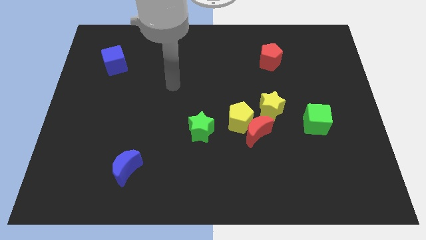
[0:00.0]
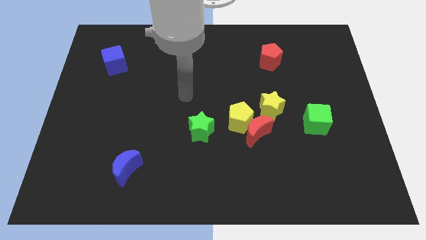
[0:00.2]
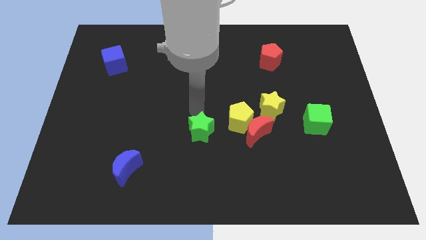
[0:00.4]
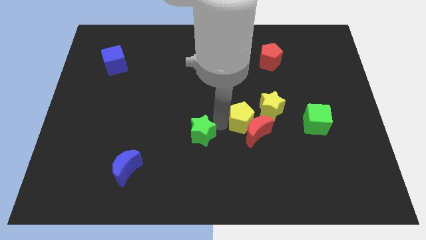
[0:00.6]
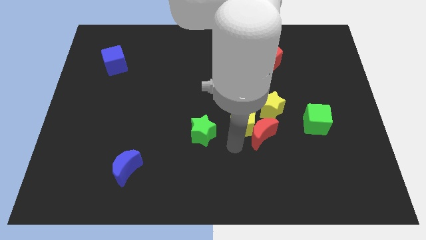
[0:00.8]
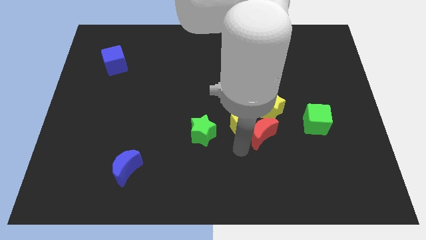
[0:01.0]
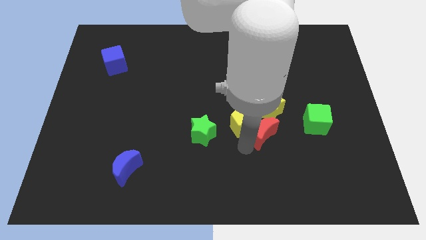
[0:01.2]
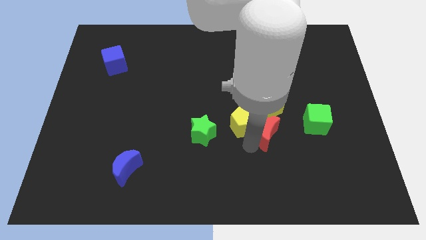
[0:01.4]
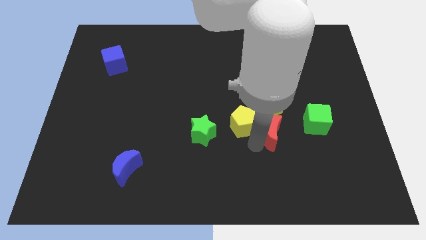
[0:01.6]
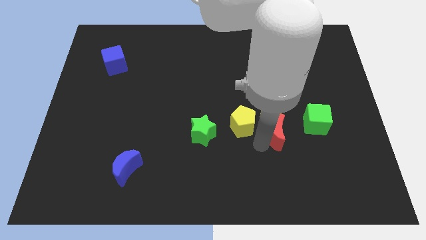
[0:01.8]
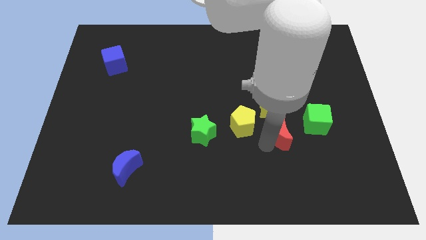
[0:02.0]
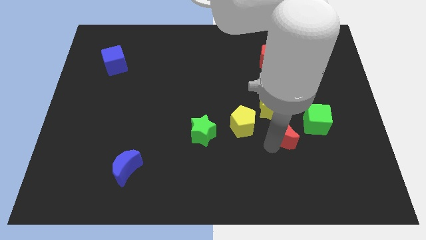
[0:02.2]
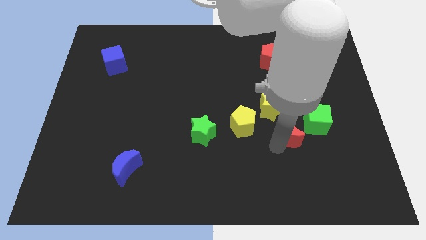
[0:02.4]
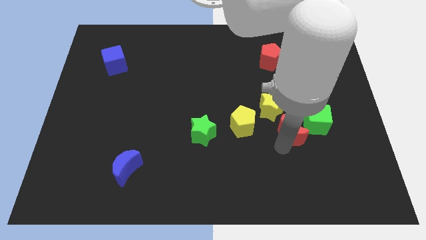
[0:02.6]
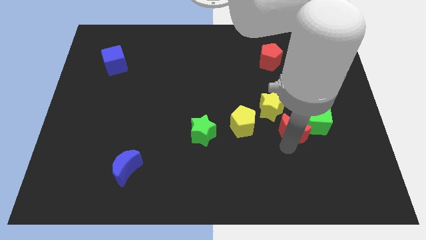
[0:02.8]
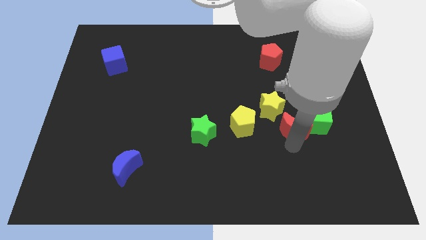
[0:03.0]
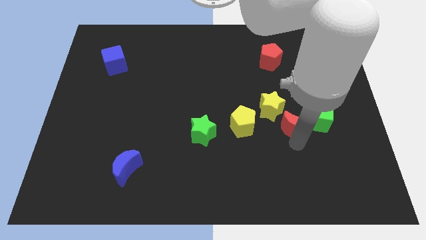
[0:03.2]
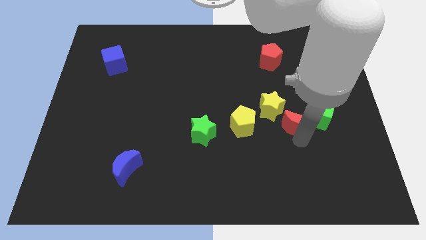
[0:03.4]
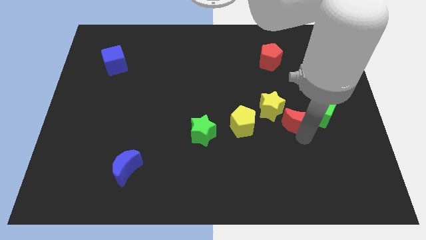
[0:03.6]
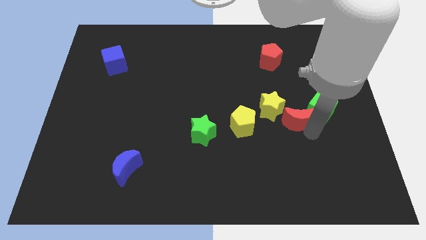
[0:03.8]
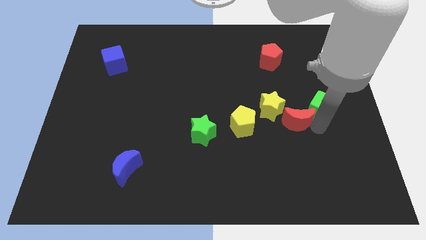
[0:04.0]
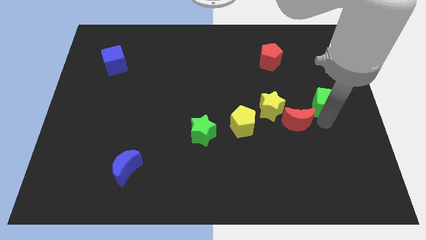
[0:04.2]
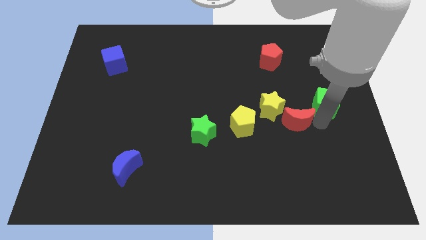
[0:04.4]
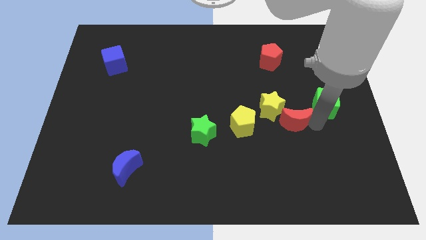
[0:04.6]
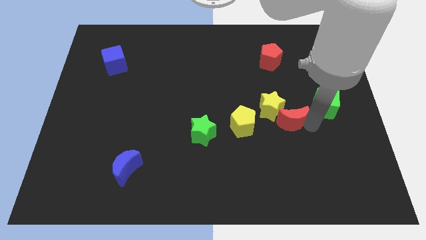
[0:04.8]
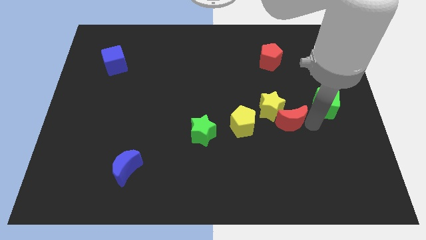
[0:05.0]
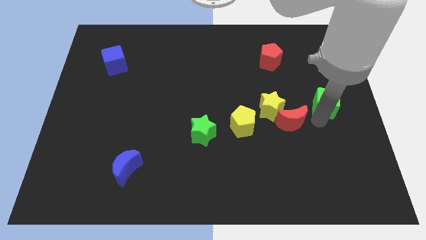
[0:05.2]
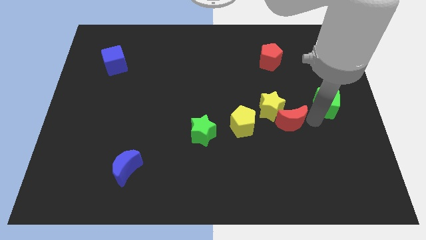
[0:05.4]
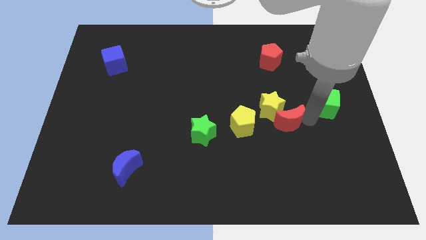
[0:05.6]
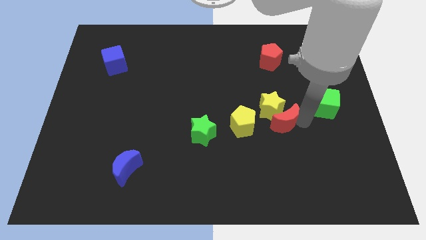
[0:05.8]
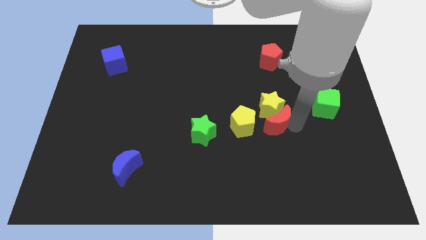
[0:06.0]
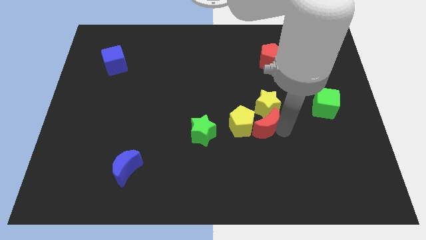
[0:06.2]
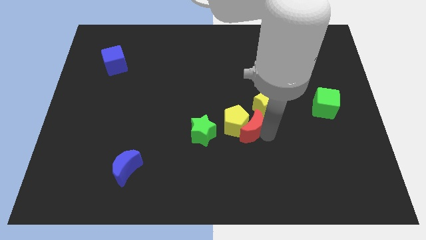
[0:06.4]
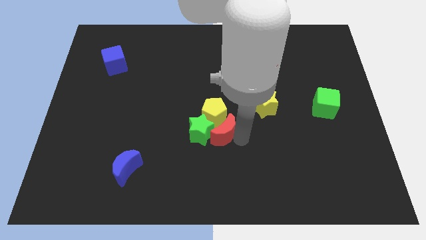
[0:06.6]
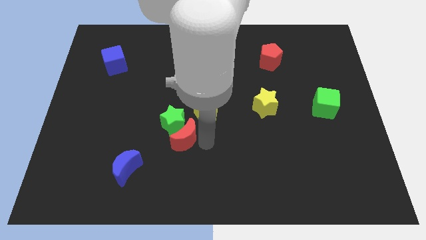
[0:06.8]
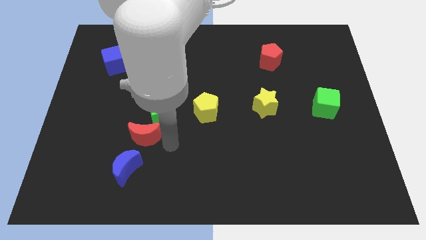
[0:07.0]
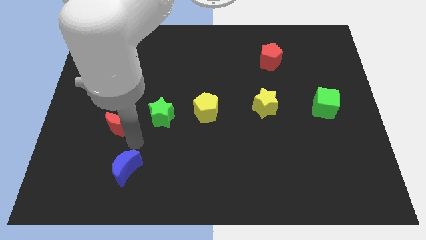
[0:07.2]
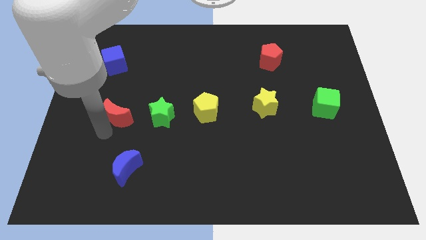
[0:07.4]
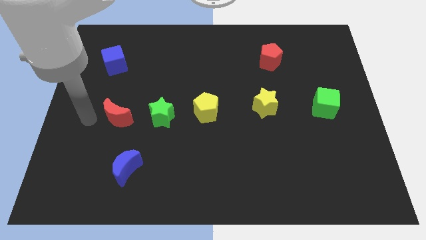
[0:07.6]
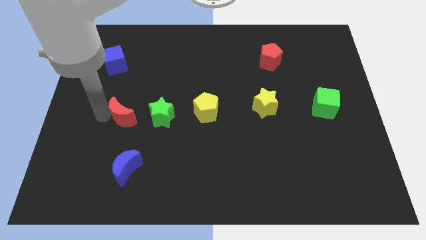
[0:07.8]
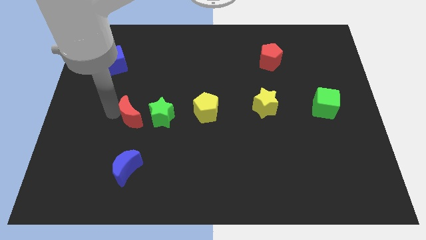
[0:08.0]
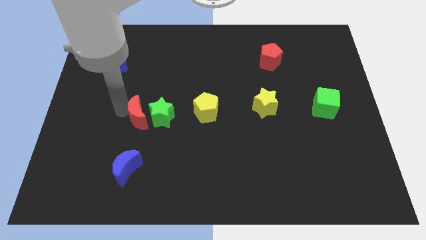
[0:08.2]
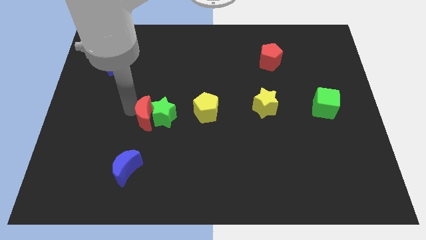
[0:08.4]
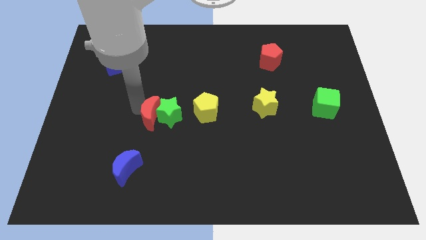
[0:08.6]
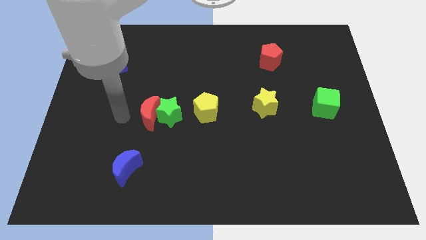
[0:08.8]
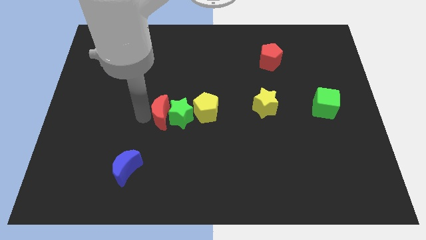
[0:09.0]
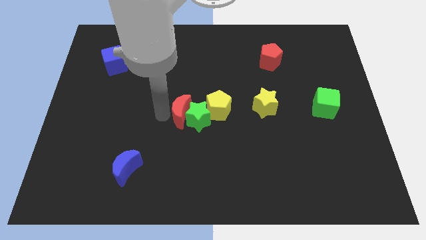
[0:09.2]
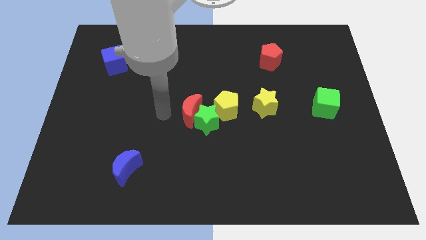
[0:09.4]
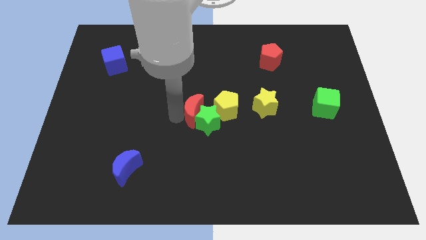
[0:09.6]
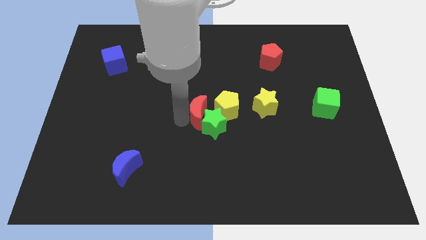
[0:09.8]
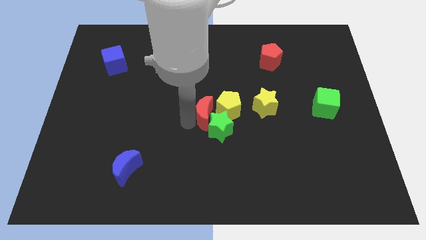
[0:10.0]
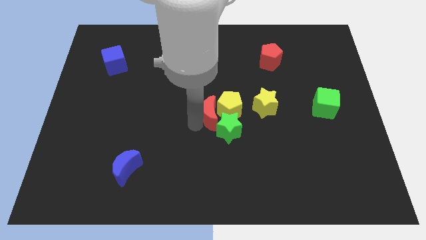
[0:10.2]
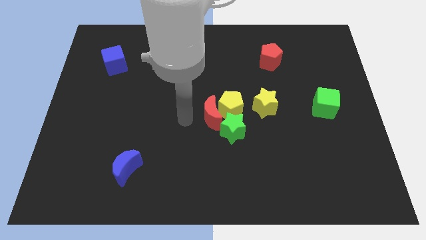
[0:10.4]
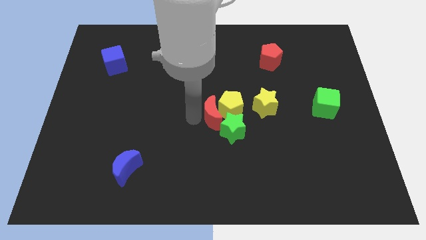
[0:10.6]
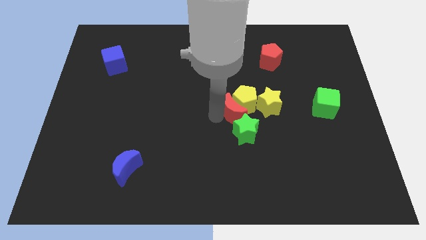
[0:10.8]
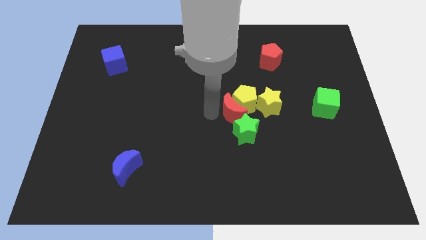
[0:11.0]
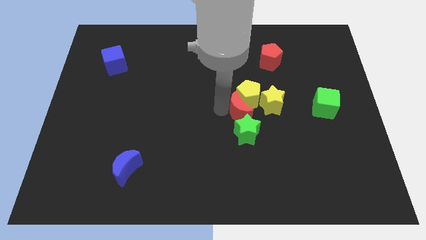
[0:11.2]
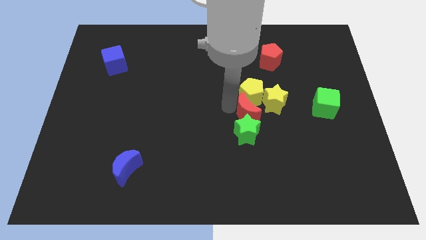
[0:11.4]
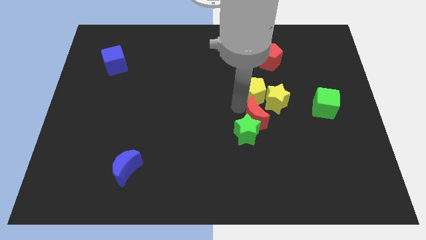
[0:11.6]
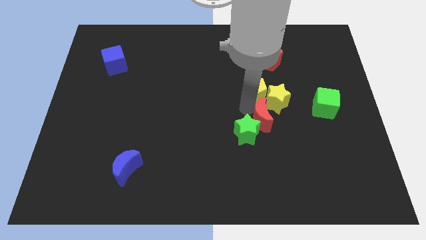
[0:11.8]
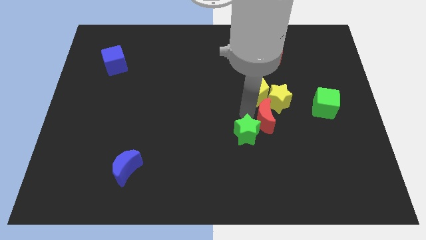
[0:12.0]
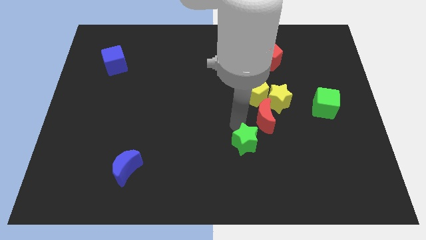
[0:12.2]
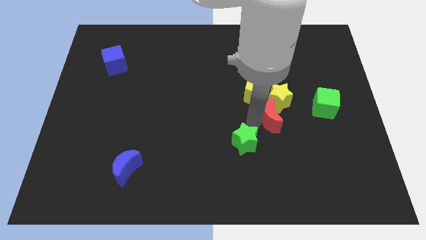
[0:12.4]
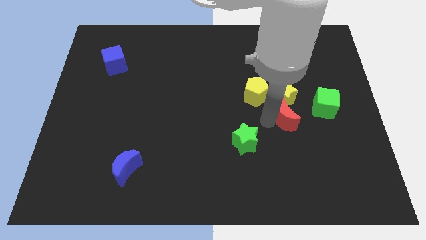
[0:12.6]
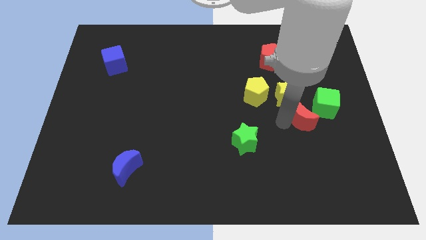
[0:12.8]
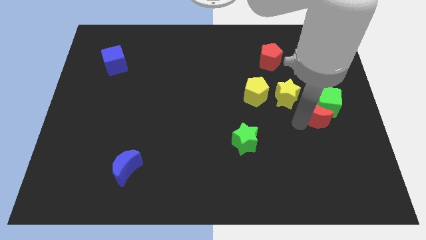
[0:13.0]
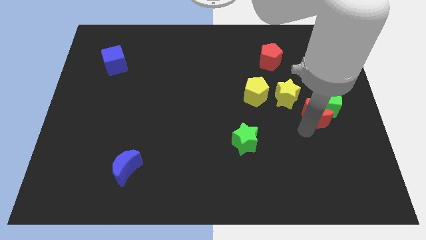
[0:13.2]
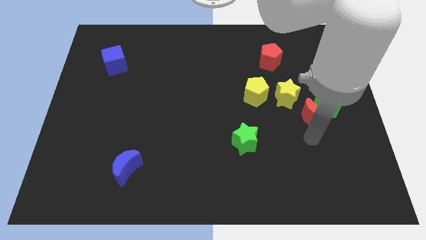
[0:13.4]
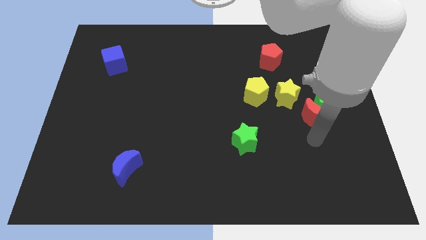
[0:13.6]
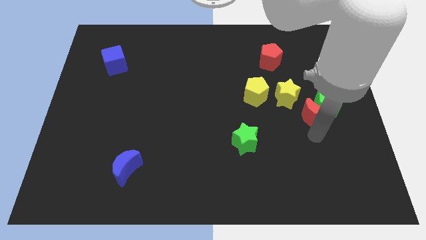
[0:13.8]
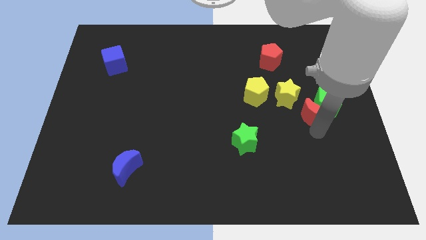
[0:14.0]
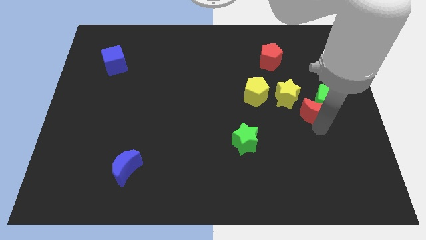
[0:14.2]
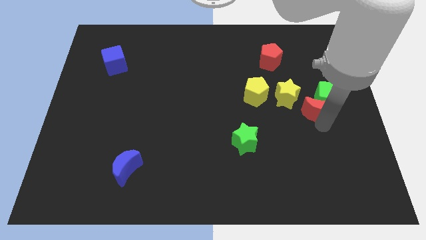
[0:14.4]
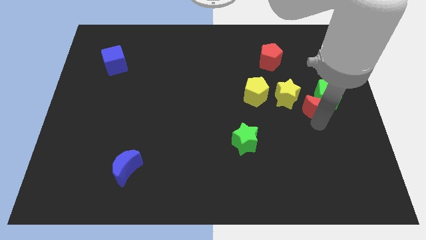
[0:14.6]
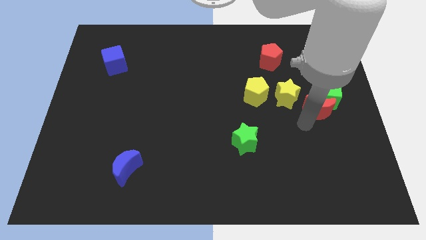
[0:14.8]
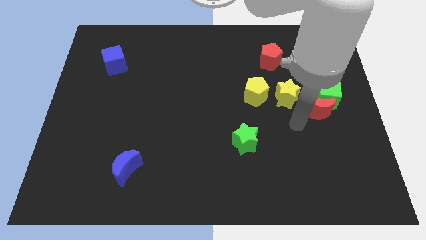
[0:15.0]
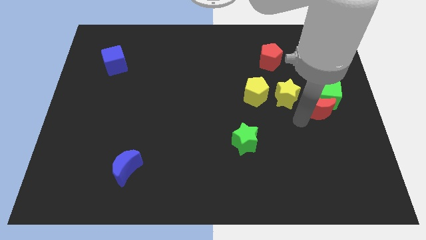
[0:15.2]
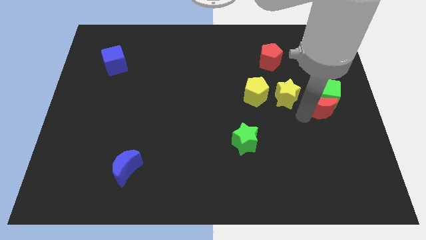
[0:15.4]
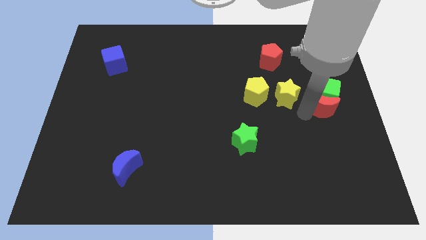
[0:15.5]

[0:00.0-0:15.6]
put the red moon to the center right
